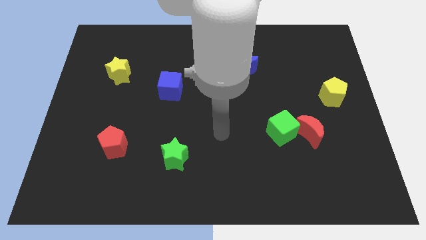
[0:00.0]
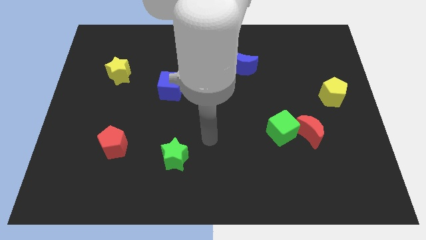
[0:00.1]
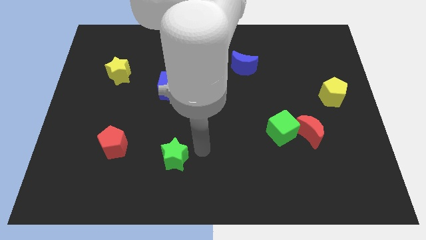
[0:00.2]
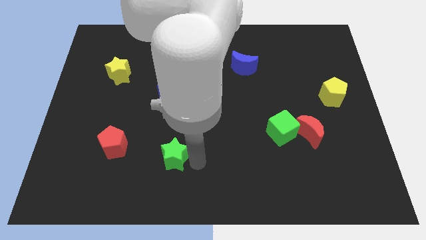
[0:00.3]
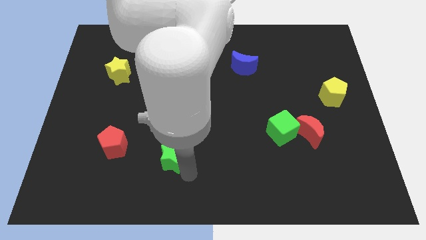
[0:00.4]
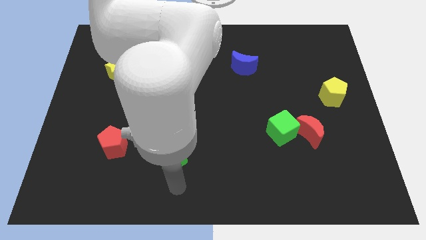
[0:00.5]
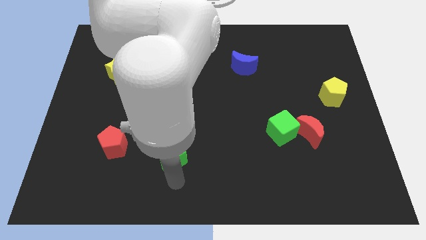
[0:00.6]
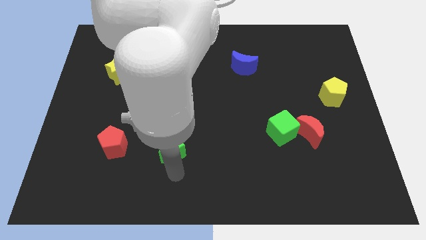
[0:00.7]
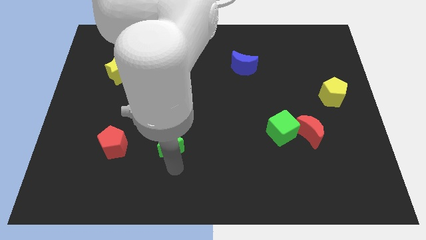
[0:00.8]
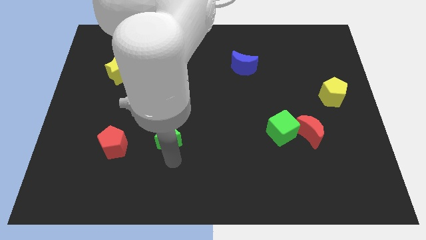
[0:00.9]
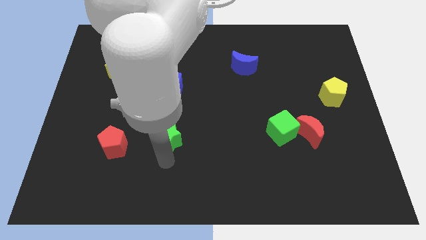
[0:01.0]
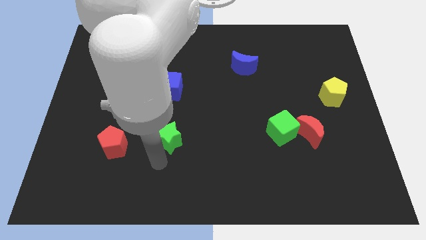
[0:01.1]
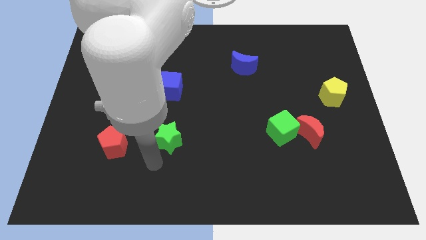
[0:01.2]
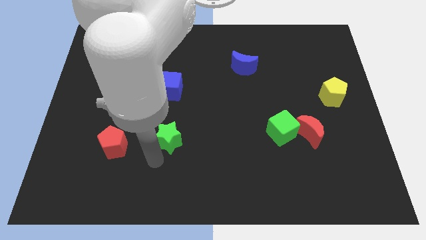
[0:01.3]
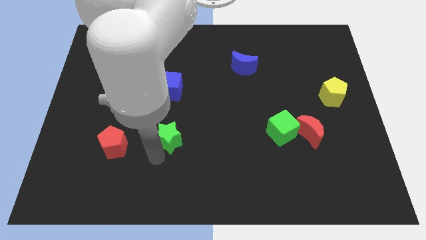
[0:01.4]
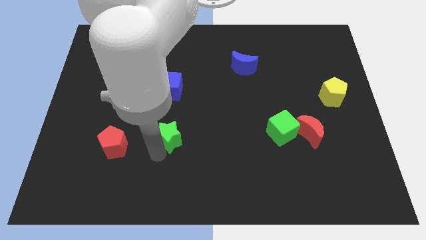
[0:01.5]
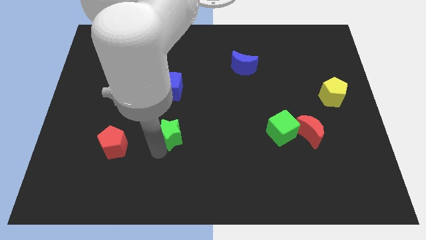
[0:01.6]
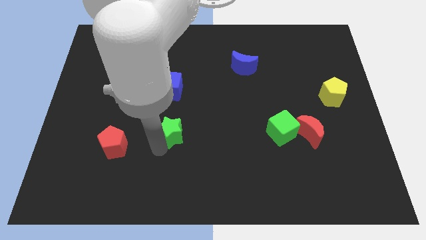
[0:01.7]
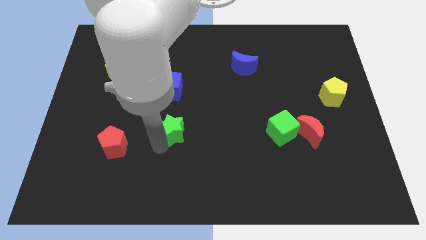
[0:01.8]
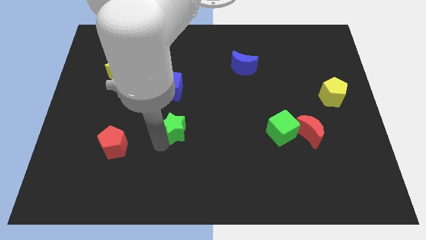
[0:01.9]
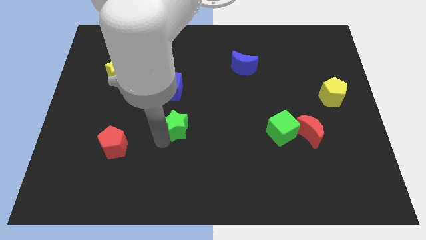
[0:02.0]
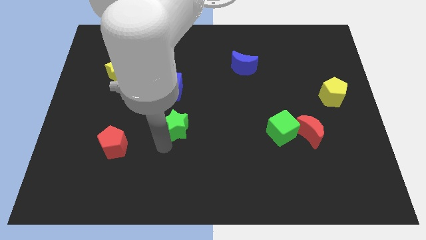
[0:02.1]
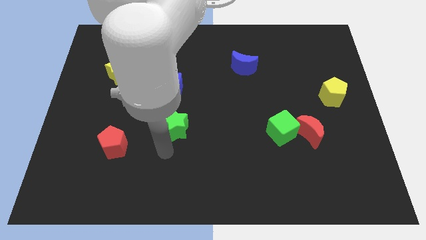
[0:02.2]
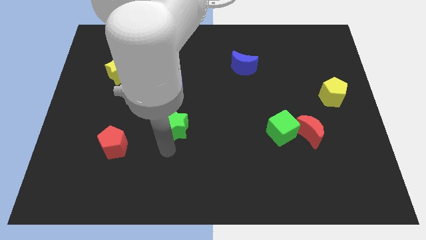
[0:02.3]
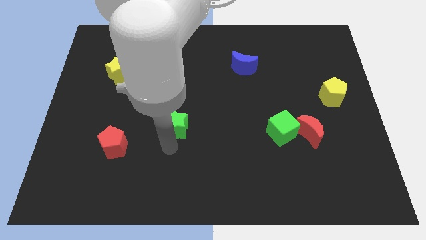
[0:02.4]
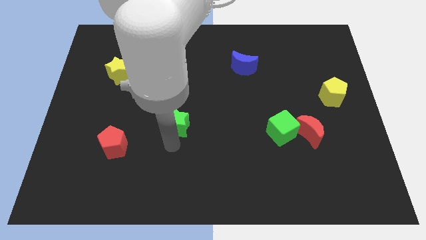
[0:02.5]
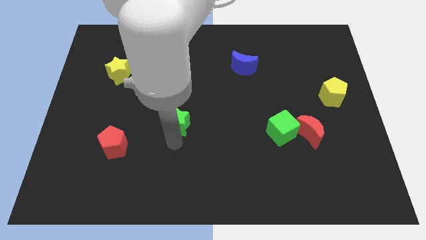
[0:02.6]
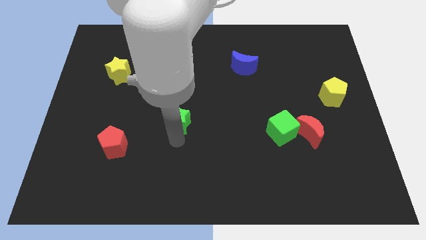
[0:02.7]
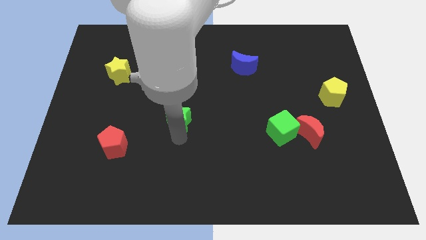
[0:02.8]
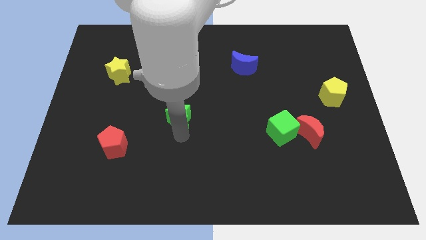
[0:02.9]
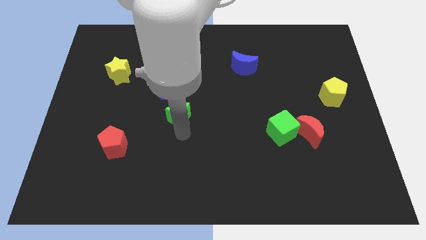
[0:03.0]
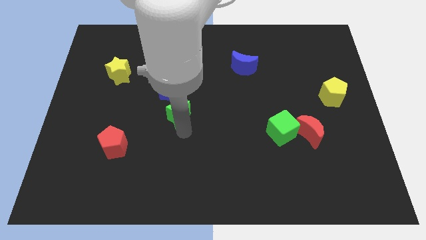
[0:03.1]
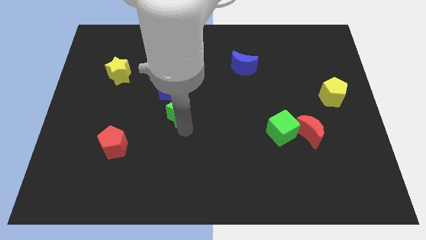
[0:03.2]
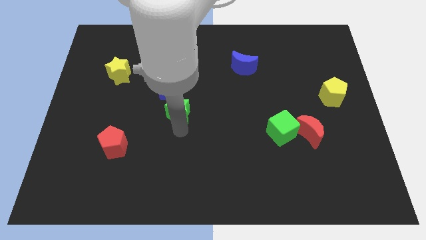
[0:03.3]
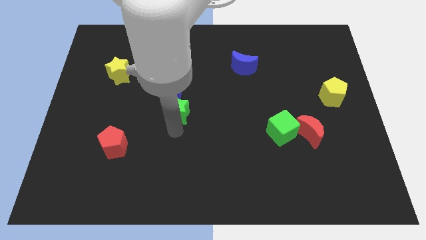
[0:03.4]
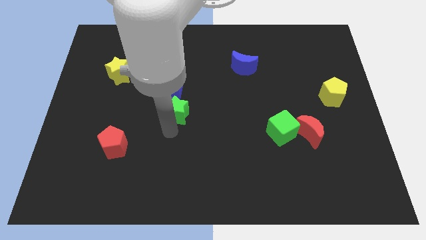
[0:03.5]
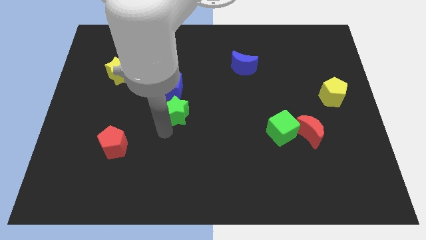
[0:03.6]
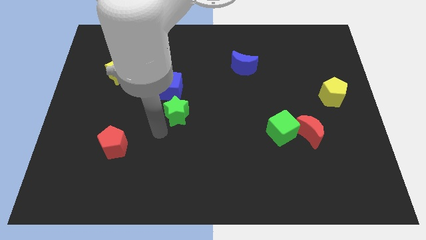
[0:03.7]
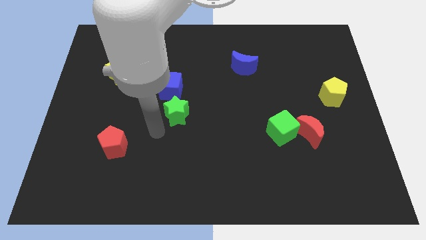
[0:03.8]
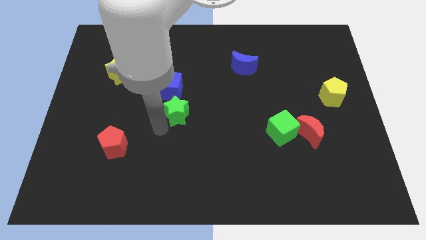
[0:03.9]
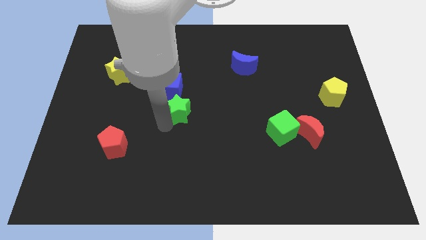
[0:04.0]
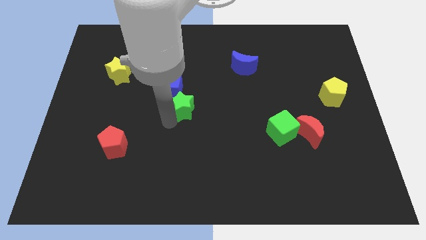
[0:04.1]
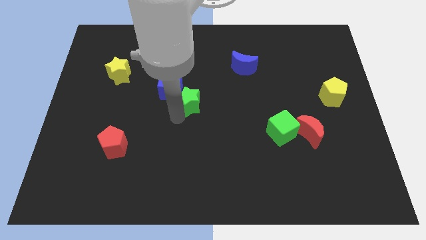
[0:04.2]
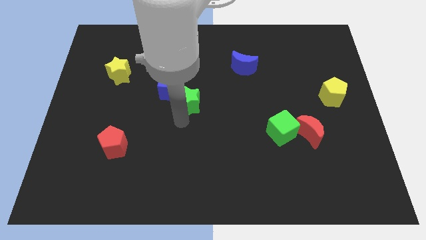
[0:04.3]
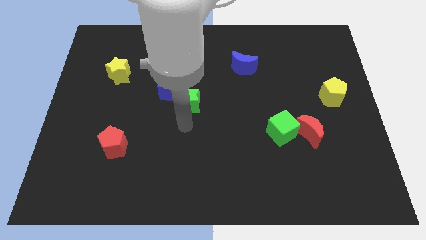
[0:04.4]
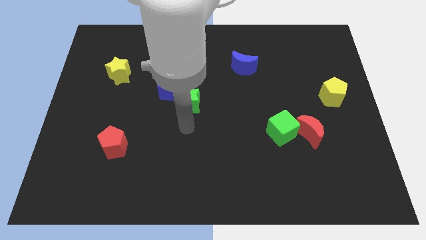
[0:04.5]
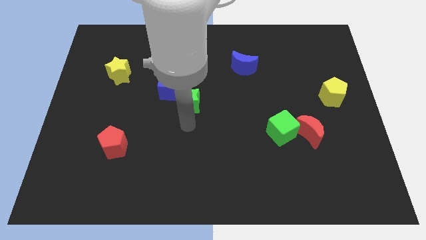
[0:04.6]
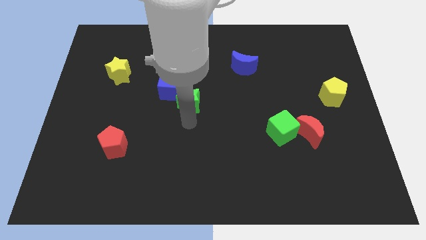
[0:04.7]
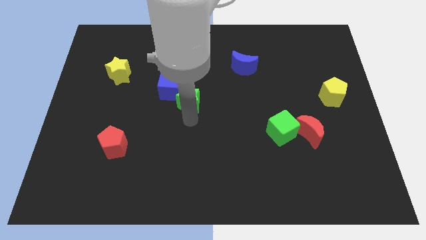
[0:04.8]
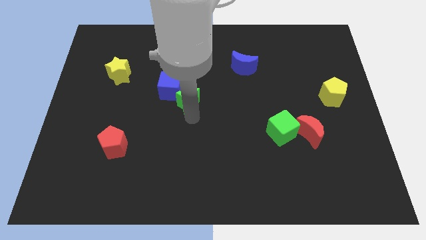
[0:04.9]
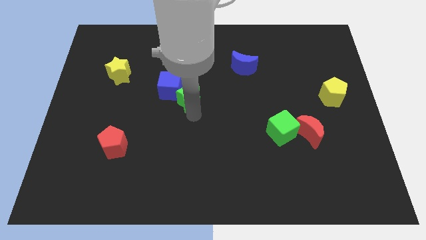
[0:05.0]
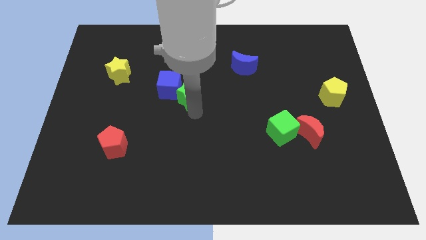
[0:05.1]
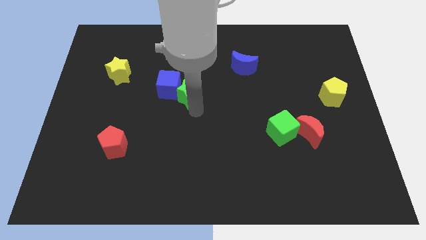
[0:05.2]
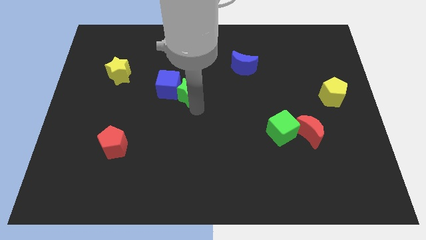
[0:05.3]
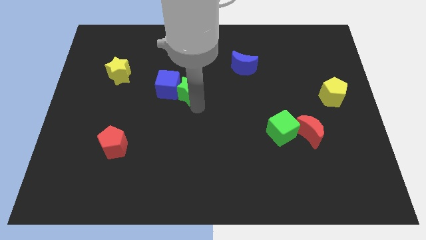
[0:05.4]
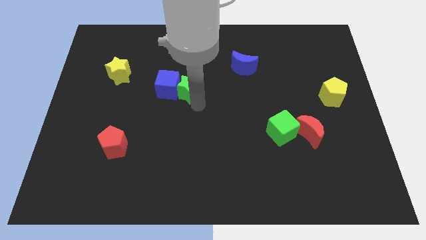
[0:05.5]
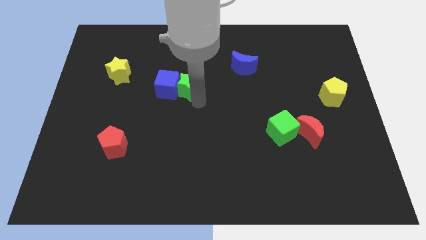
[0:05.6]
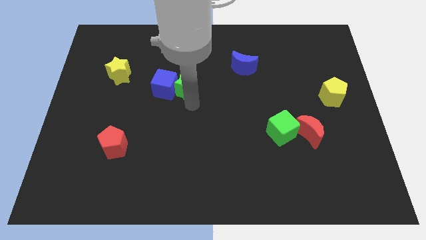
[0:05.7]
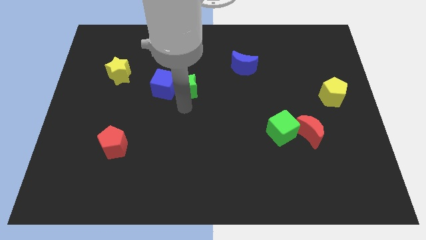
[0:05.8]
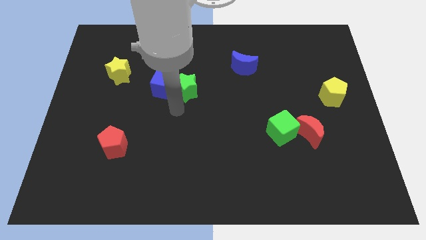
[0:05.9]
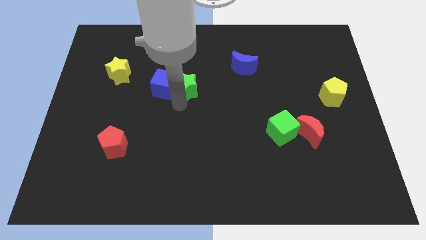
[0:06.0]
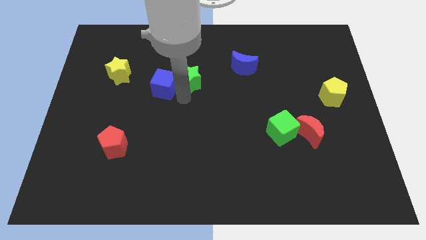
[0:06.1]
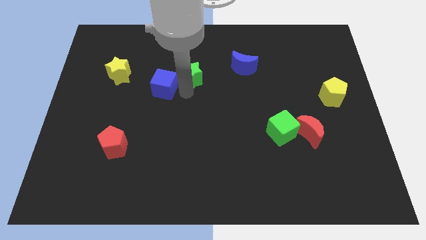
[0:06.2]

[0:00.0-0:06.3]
slide the green star left of the blue moon

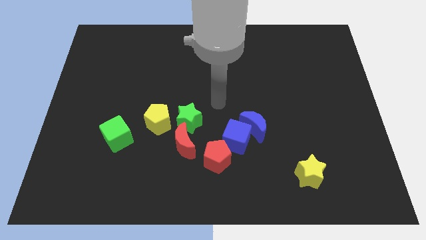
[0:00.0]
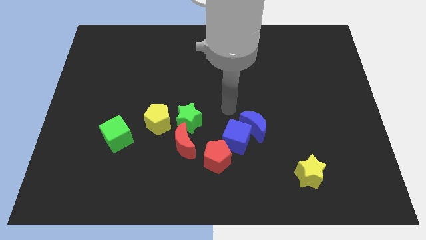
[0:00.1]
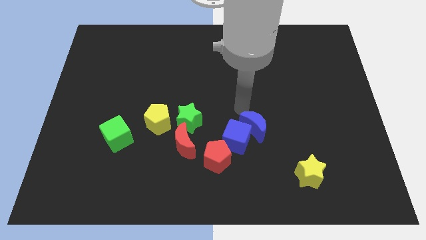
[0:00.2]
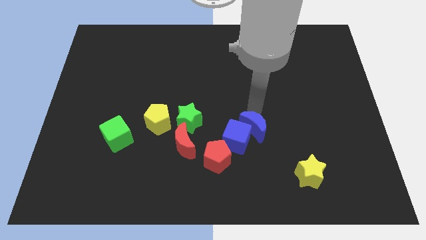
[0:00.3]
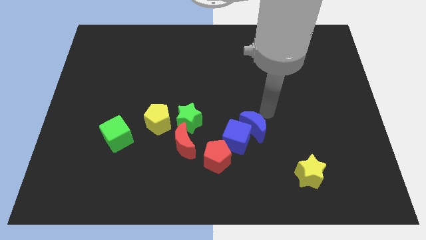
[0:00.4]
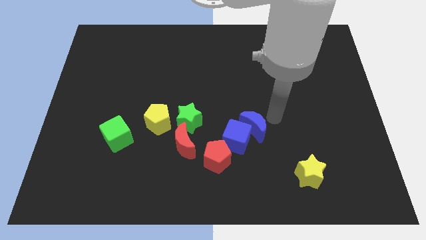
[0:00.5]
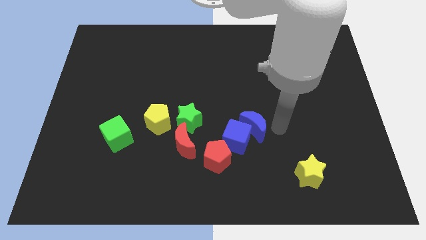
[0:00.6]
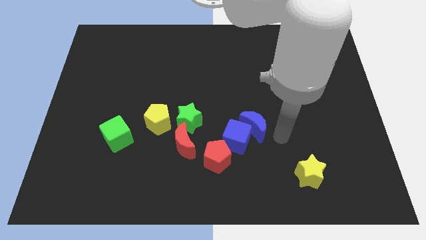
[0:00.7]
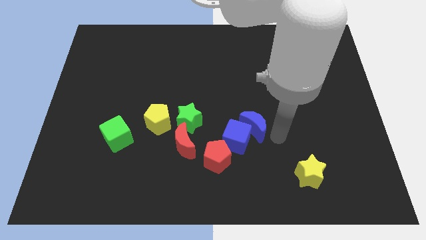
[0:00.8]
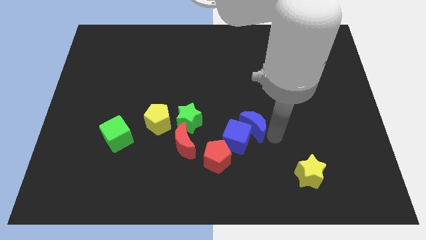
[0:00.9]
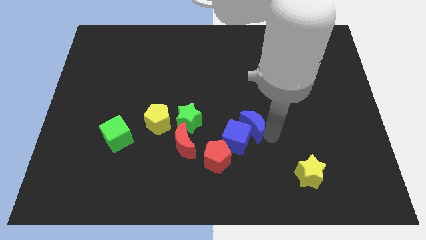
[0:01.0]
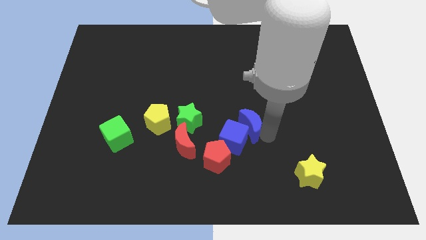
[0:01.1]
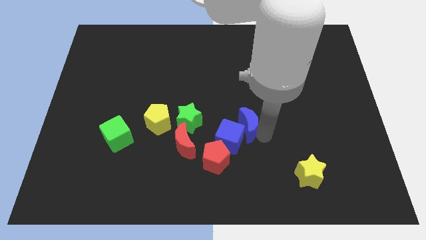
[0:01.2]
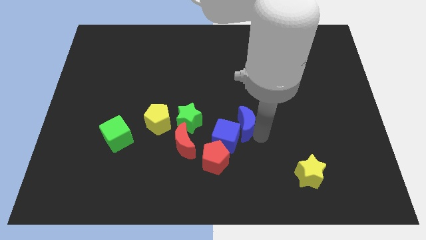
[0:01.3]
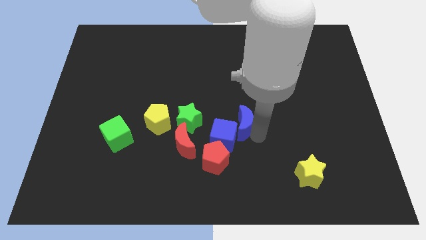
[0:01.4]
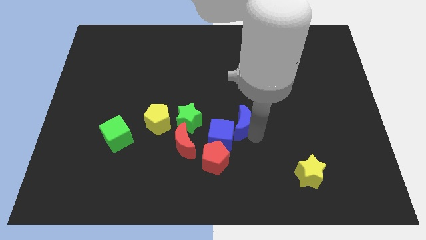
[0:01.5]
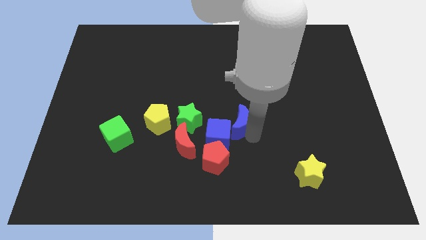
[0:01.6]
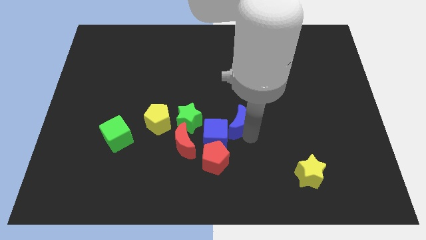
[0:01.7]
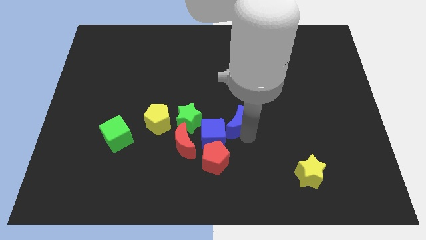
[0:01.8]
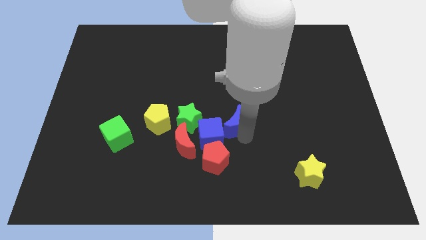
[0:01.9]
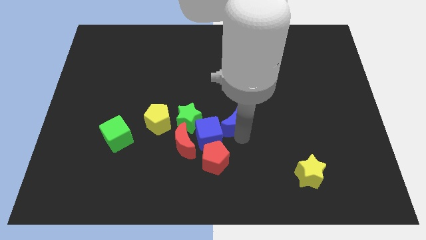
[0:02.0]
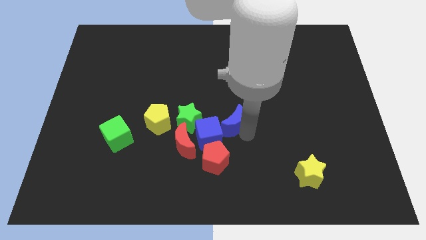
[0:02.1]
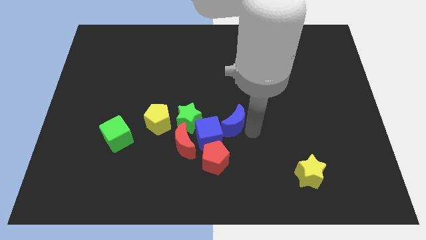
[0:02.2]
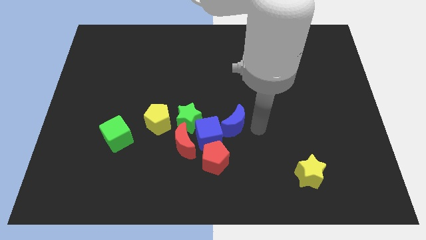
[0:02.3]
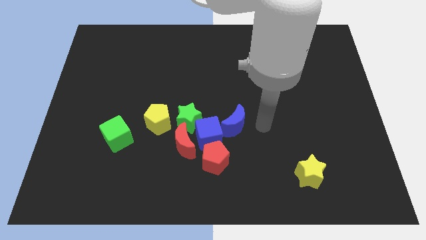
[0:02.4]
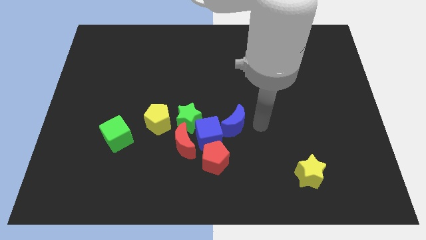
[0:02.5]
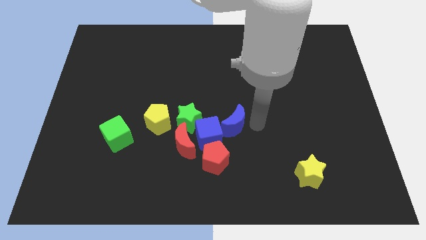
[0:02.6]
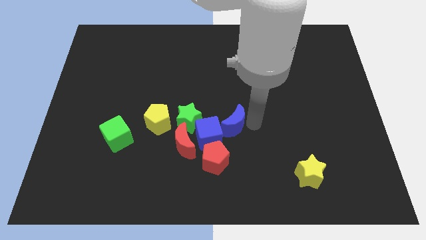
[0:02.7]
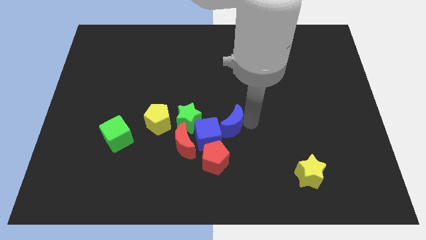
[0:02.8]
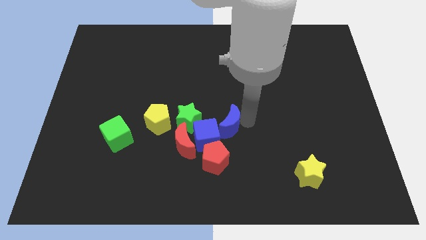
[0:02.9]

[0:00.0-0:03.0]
put the blue moon to the top right of the red moon
